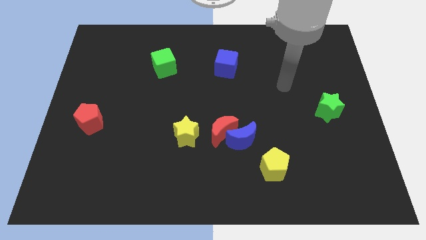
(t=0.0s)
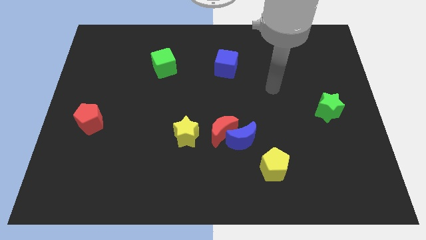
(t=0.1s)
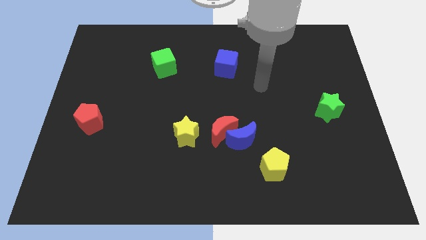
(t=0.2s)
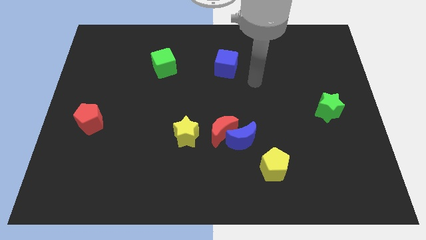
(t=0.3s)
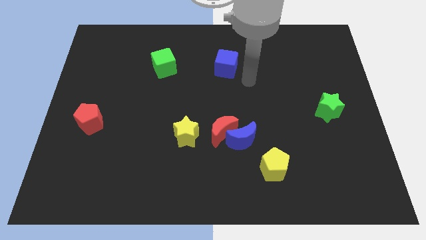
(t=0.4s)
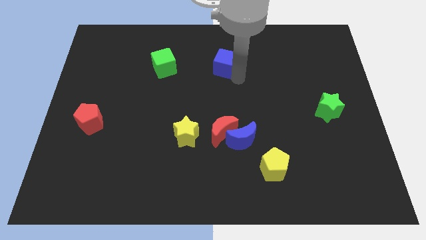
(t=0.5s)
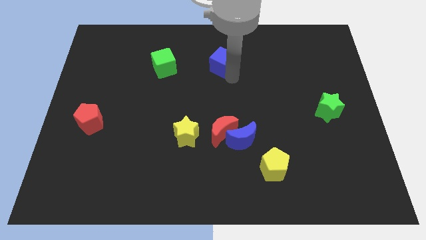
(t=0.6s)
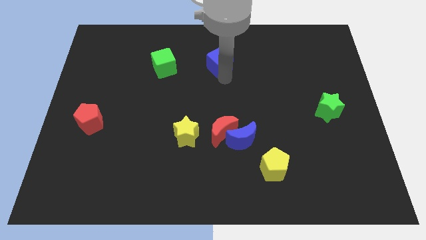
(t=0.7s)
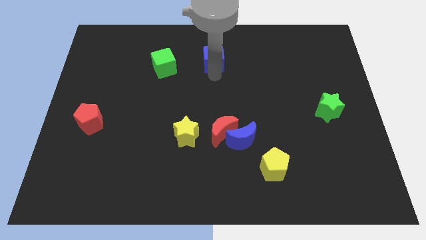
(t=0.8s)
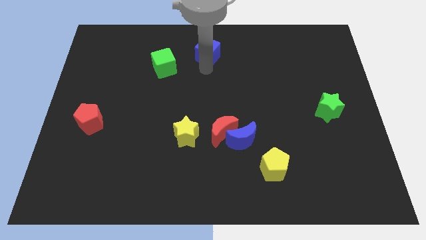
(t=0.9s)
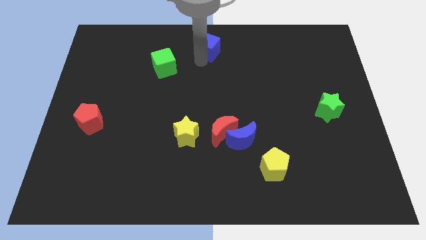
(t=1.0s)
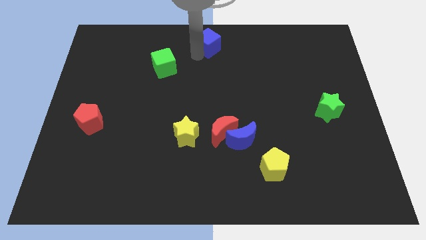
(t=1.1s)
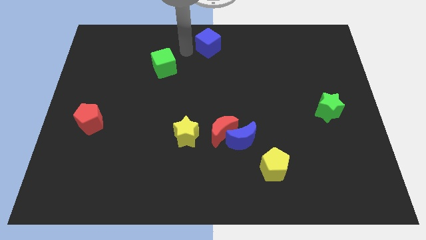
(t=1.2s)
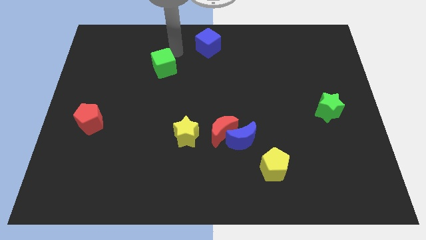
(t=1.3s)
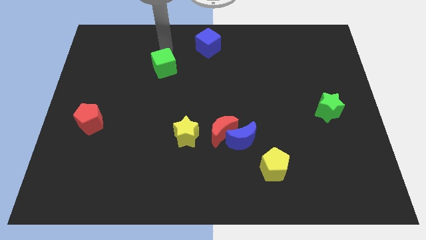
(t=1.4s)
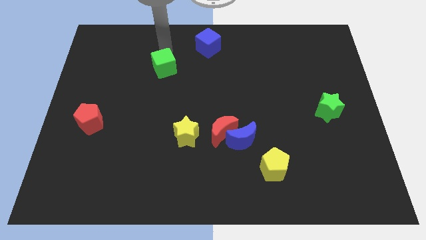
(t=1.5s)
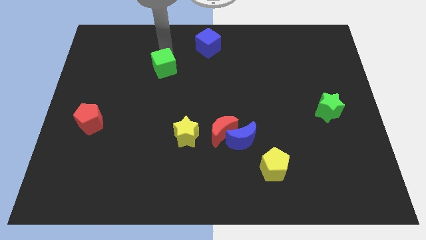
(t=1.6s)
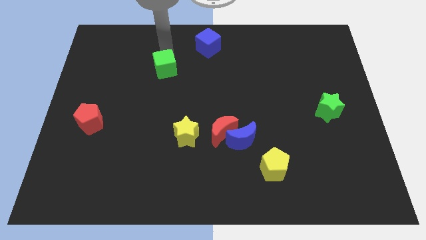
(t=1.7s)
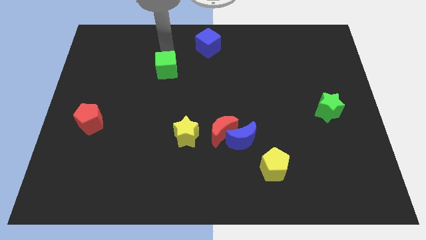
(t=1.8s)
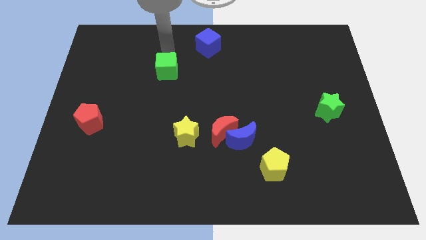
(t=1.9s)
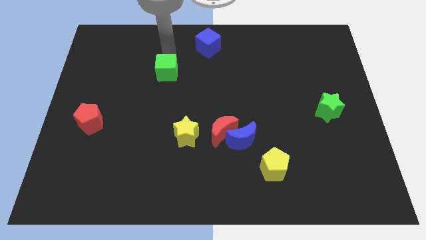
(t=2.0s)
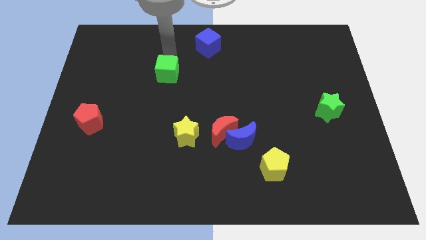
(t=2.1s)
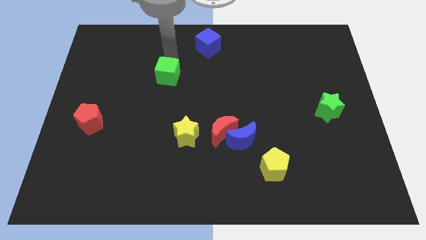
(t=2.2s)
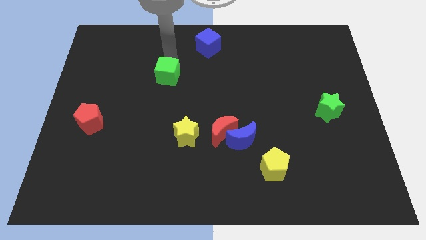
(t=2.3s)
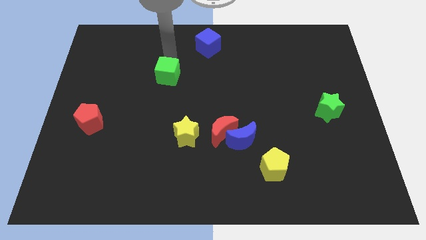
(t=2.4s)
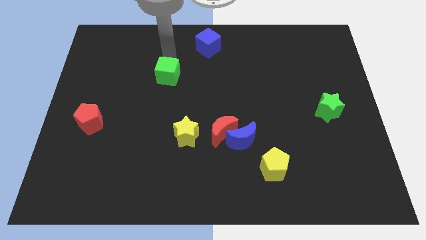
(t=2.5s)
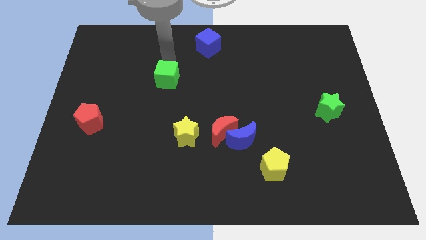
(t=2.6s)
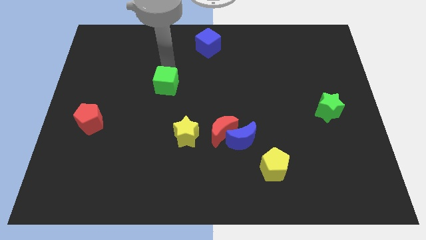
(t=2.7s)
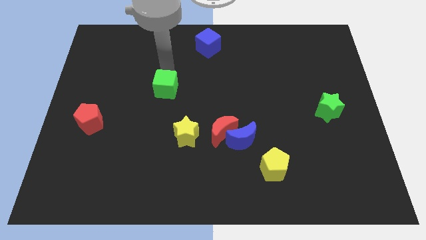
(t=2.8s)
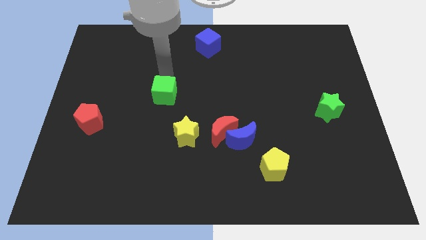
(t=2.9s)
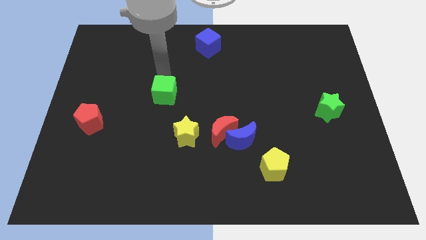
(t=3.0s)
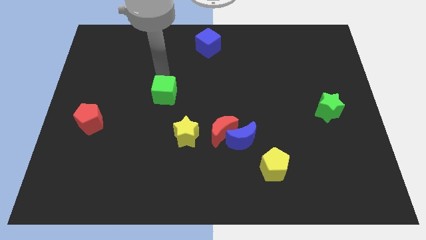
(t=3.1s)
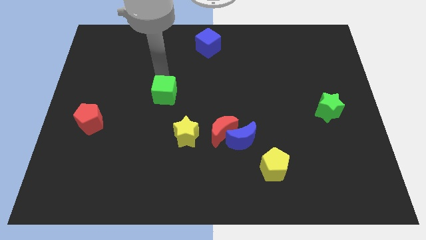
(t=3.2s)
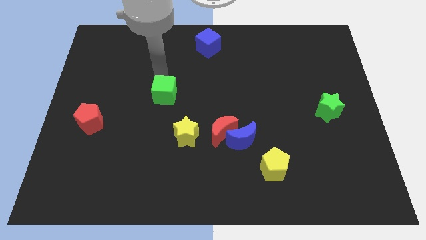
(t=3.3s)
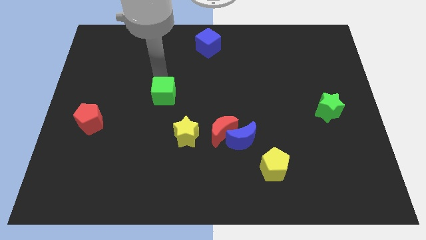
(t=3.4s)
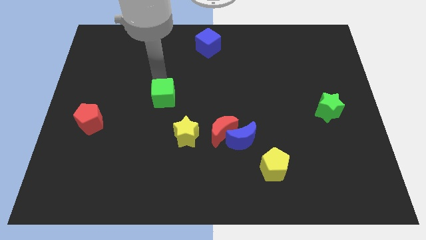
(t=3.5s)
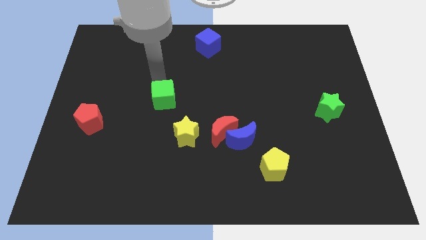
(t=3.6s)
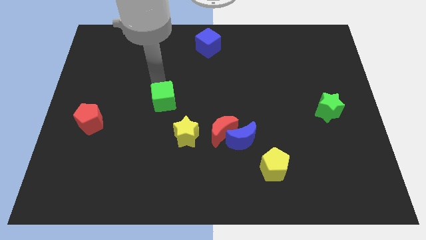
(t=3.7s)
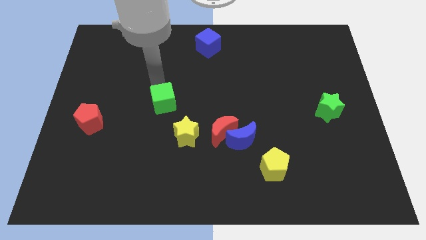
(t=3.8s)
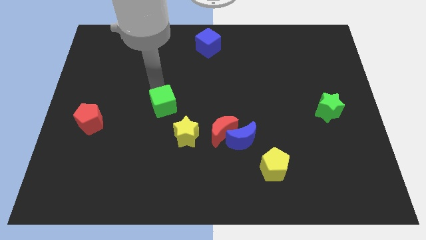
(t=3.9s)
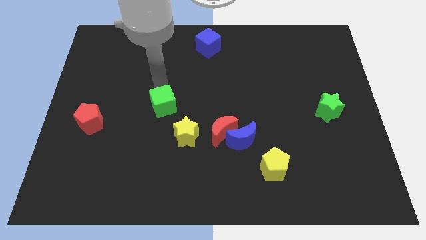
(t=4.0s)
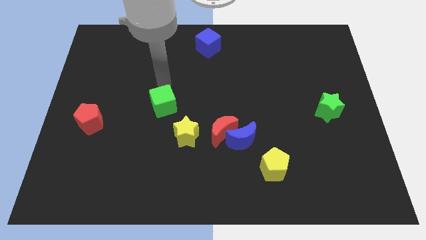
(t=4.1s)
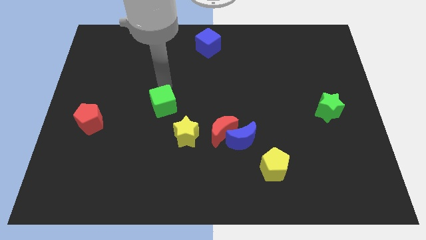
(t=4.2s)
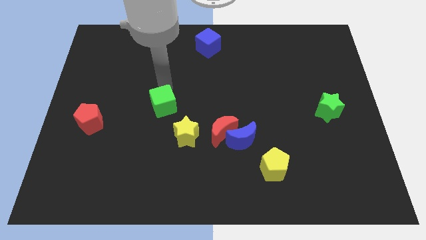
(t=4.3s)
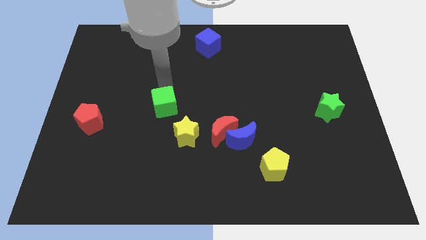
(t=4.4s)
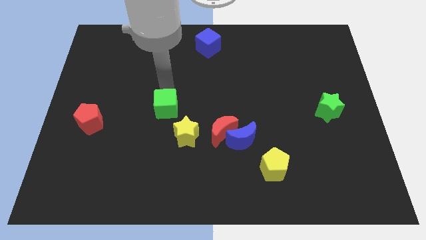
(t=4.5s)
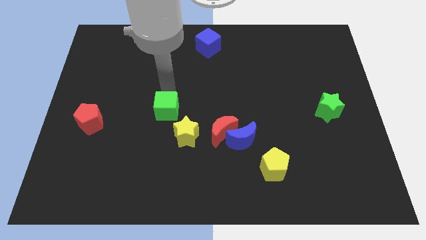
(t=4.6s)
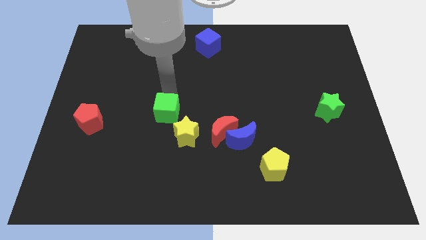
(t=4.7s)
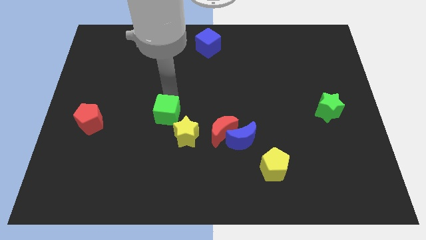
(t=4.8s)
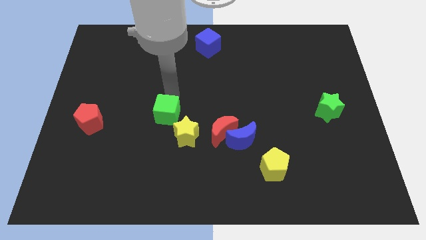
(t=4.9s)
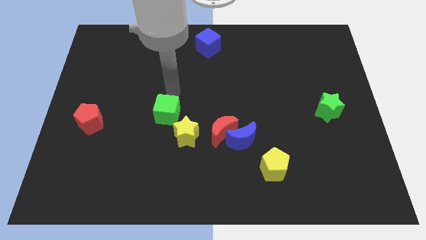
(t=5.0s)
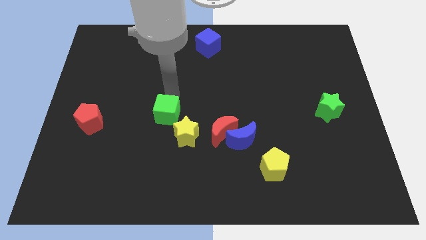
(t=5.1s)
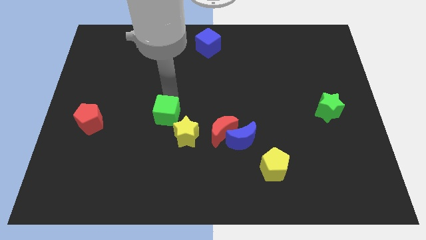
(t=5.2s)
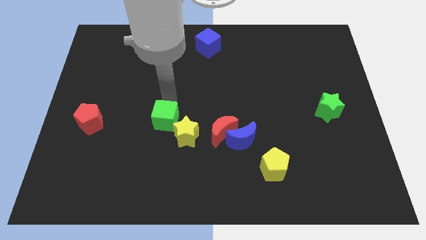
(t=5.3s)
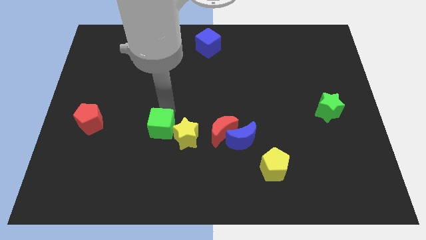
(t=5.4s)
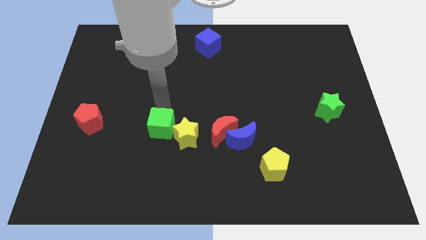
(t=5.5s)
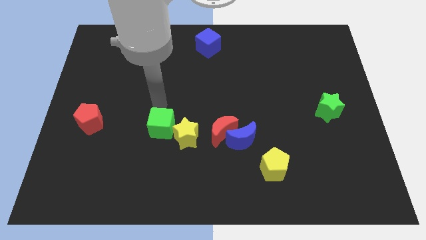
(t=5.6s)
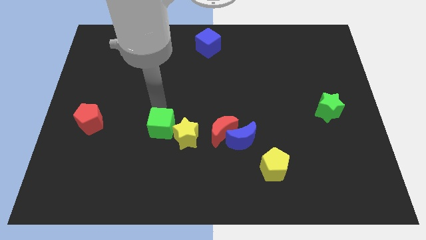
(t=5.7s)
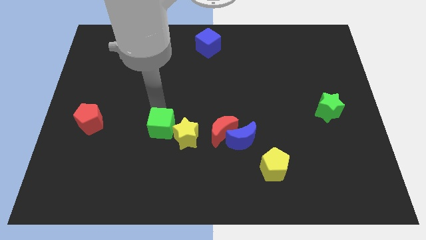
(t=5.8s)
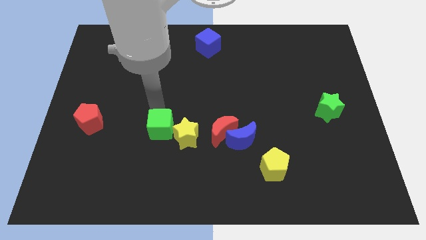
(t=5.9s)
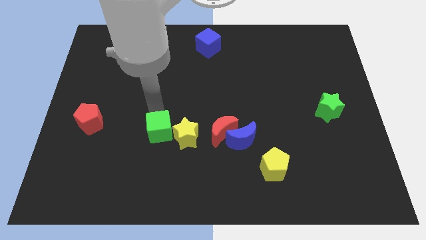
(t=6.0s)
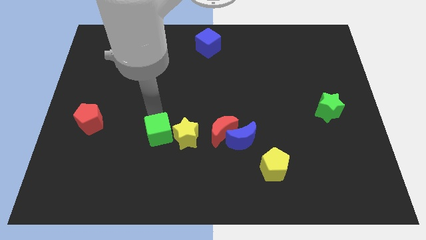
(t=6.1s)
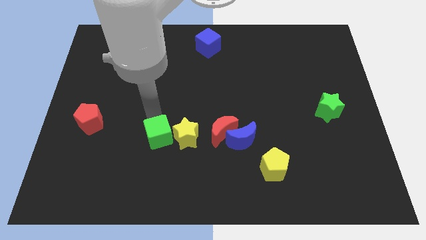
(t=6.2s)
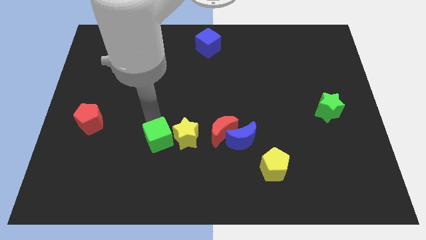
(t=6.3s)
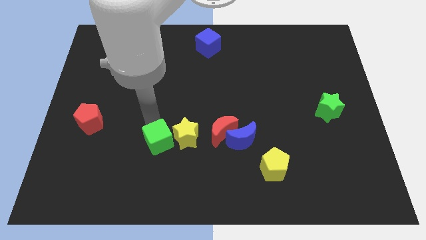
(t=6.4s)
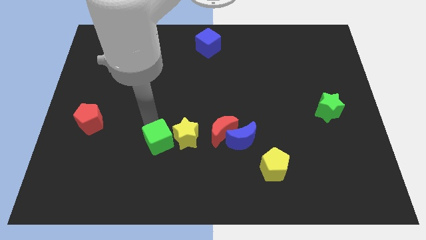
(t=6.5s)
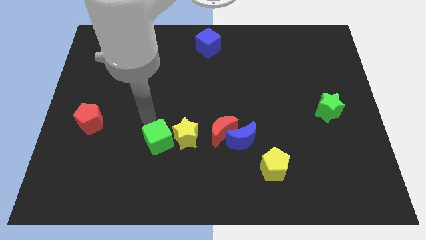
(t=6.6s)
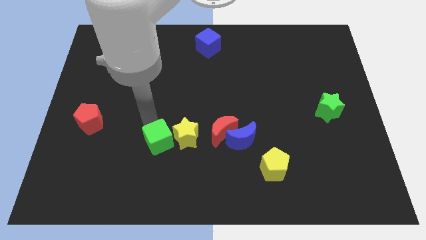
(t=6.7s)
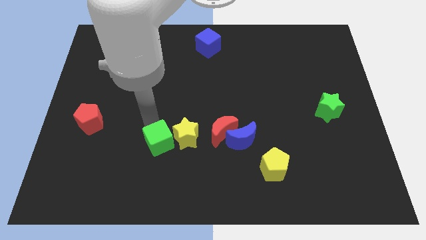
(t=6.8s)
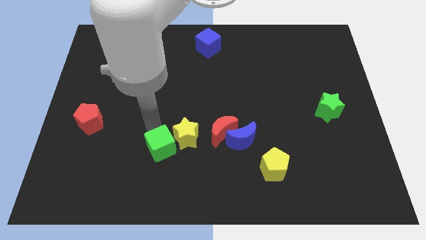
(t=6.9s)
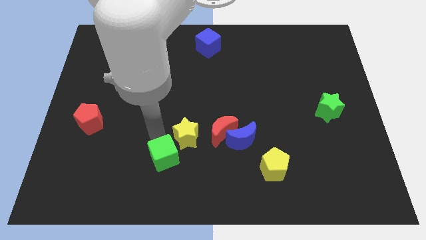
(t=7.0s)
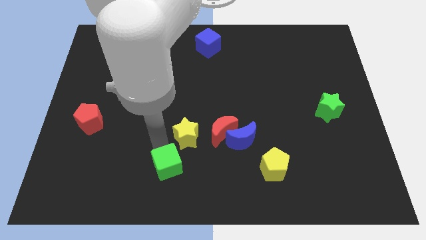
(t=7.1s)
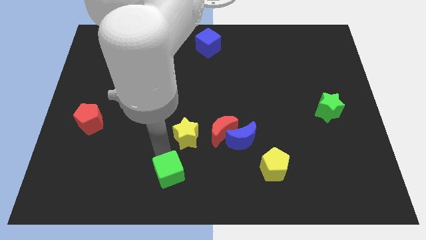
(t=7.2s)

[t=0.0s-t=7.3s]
push the green cube to the bottom

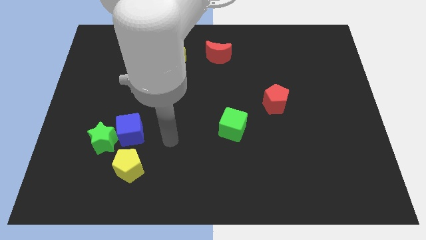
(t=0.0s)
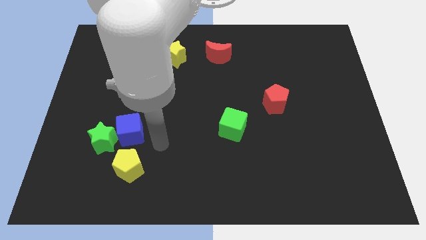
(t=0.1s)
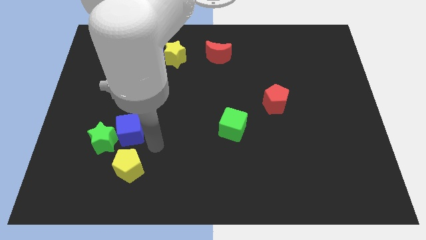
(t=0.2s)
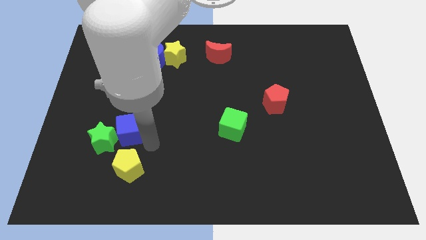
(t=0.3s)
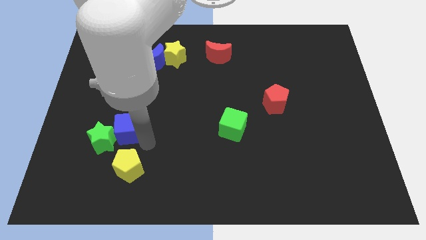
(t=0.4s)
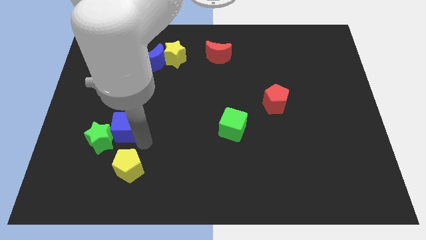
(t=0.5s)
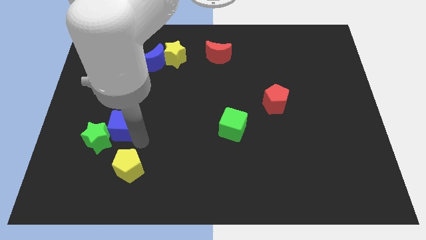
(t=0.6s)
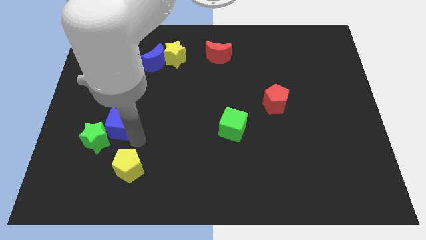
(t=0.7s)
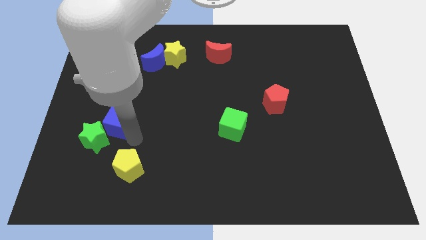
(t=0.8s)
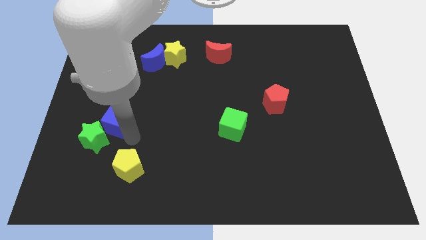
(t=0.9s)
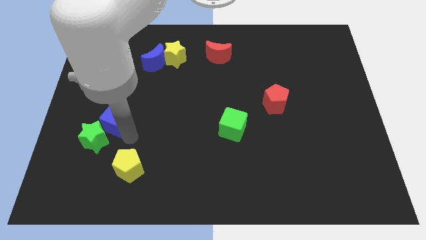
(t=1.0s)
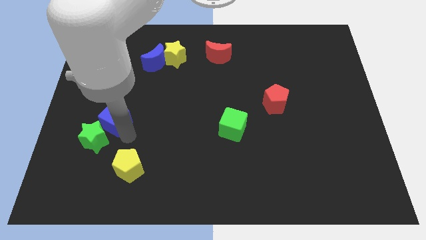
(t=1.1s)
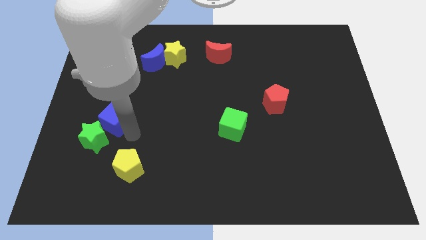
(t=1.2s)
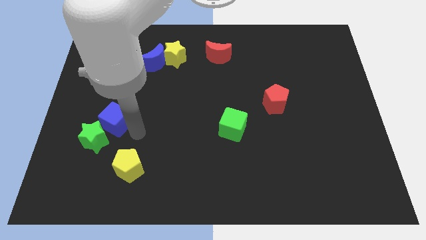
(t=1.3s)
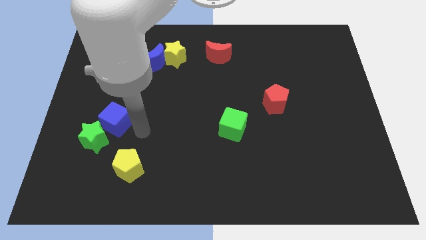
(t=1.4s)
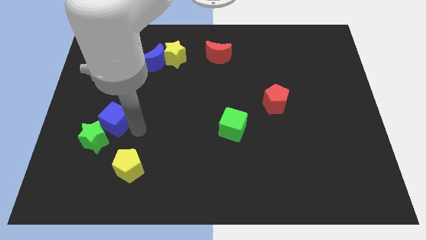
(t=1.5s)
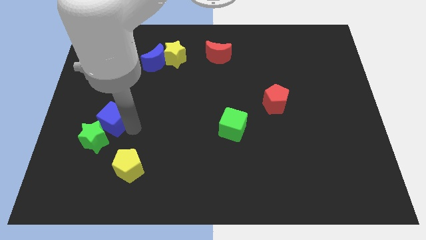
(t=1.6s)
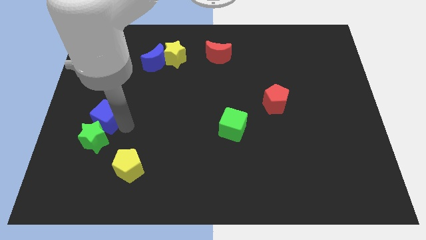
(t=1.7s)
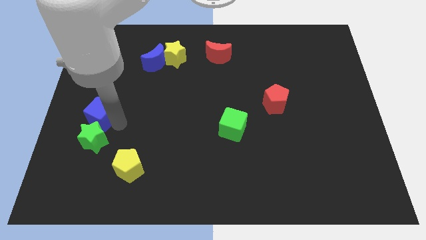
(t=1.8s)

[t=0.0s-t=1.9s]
put the blue cube to the left side of the board
